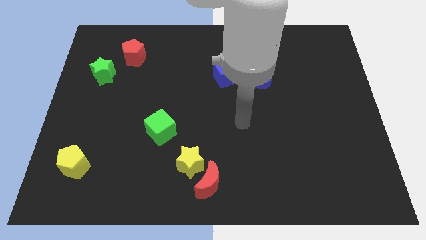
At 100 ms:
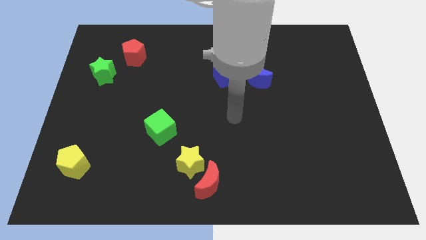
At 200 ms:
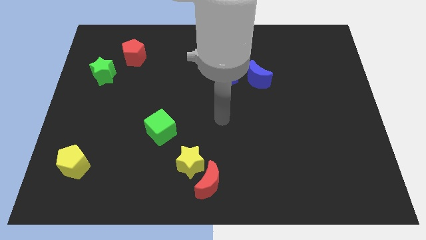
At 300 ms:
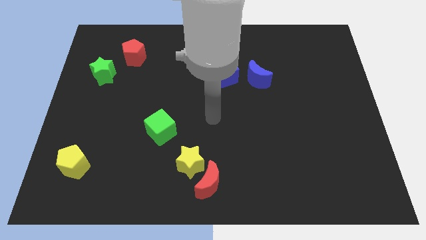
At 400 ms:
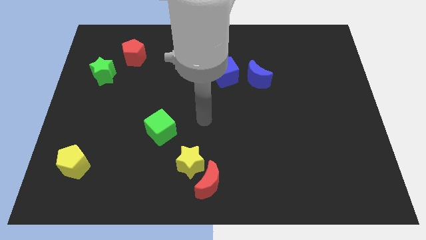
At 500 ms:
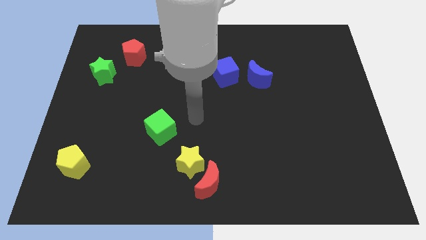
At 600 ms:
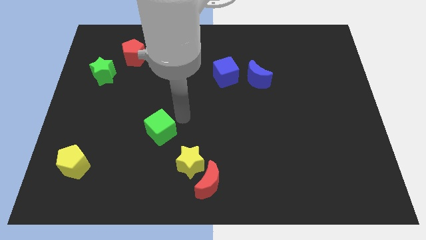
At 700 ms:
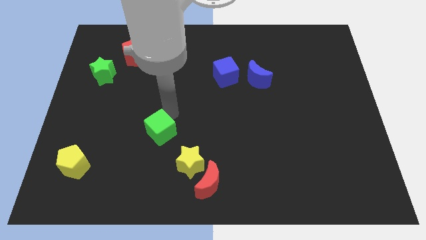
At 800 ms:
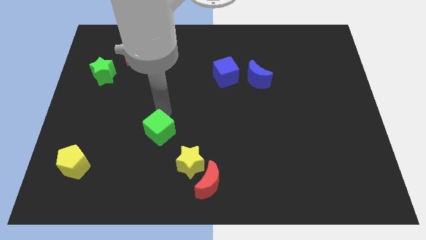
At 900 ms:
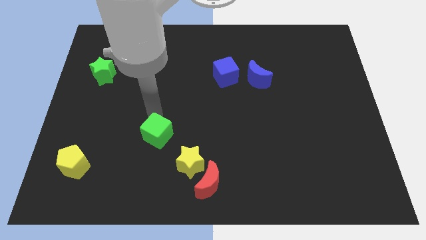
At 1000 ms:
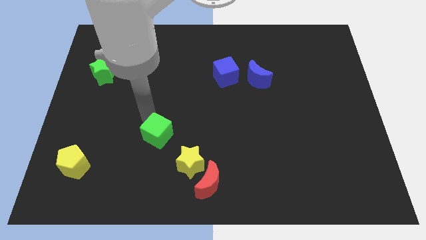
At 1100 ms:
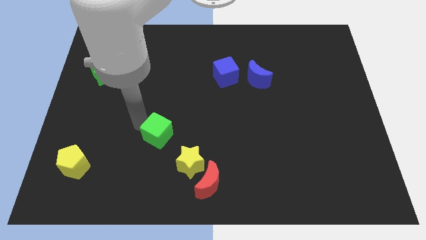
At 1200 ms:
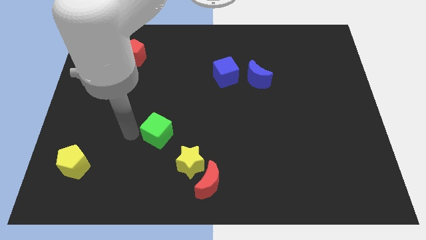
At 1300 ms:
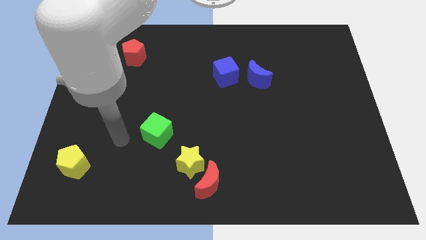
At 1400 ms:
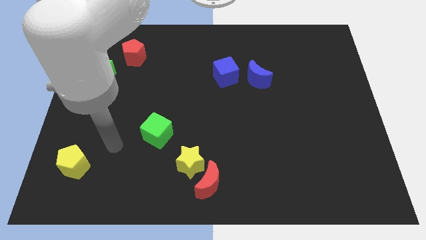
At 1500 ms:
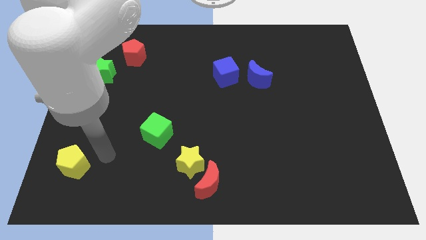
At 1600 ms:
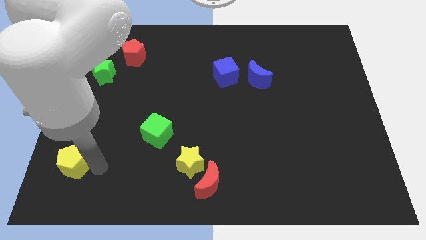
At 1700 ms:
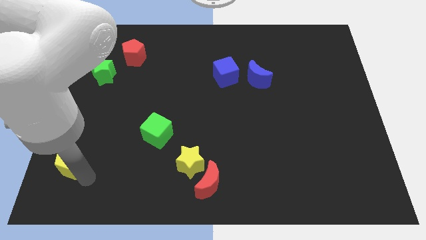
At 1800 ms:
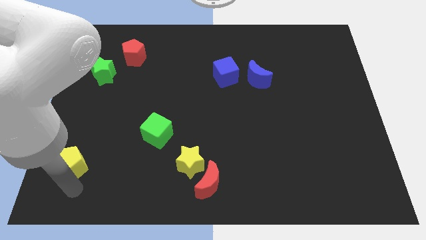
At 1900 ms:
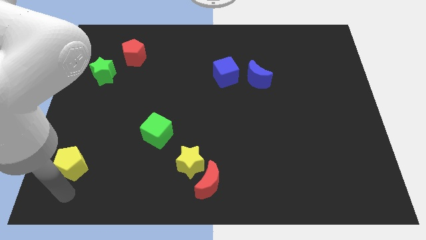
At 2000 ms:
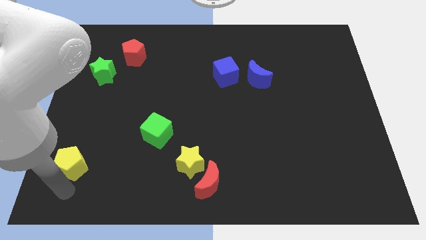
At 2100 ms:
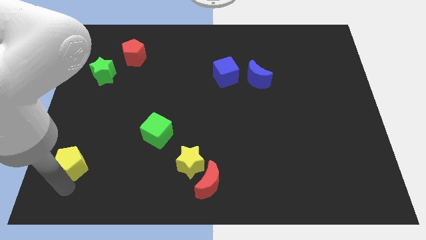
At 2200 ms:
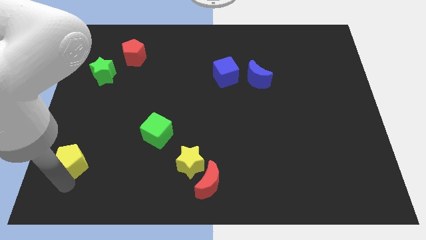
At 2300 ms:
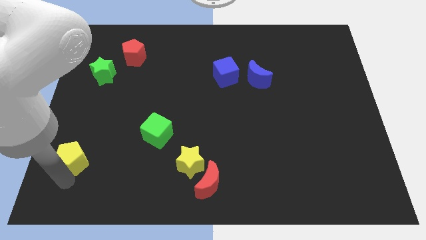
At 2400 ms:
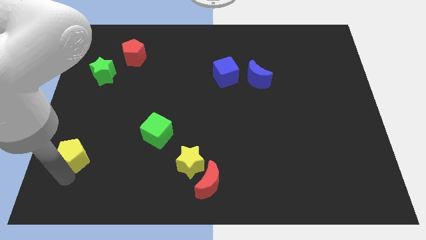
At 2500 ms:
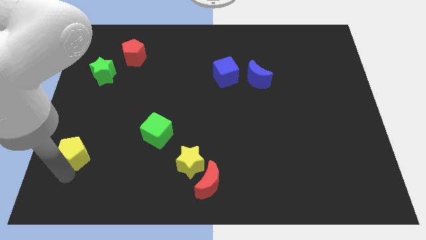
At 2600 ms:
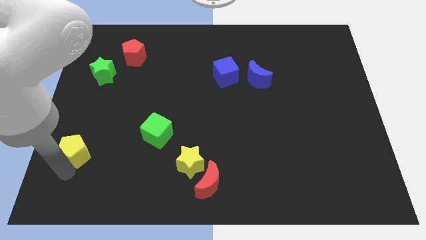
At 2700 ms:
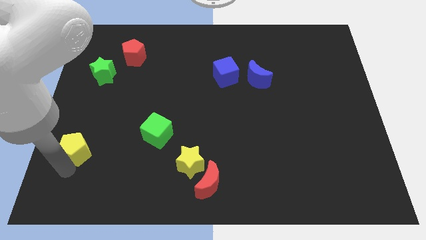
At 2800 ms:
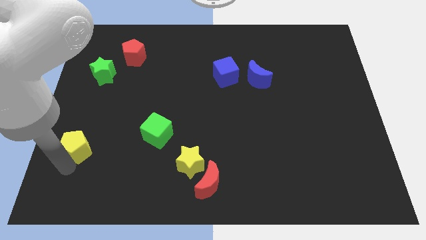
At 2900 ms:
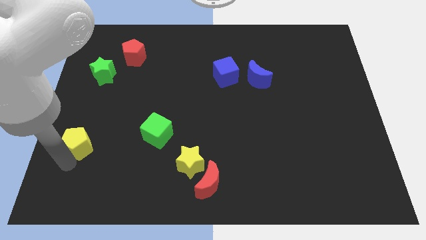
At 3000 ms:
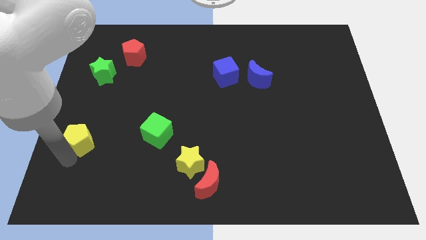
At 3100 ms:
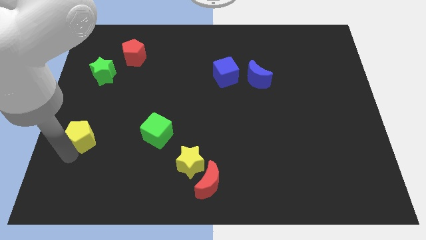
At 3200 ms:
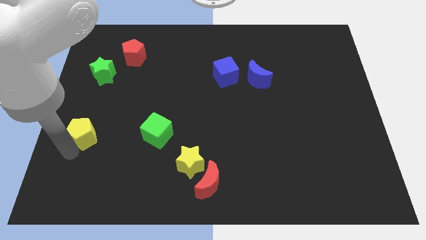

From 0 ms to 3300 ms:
push the yellow pentagon somewhat upwards

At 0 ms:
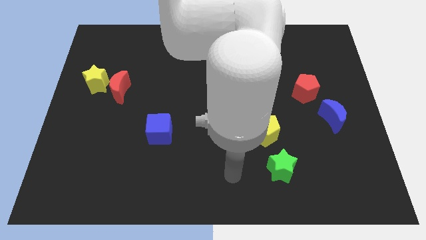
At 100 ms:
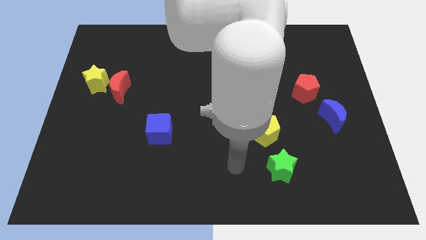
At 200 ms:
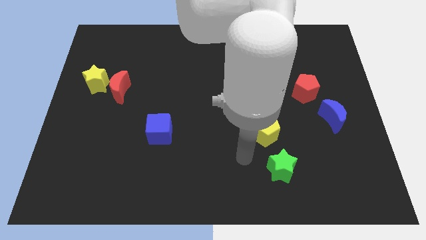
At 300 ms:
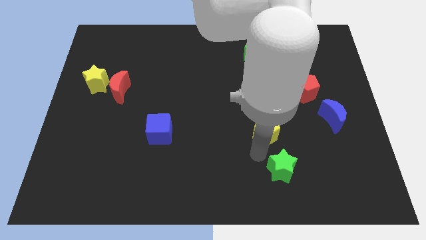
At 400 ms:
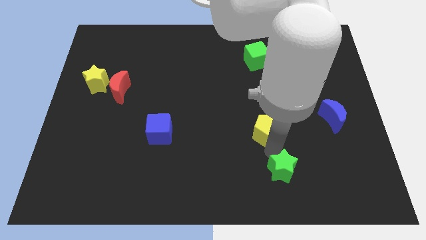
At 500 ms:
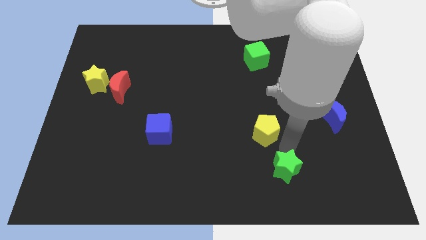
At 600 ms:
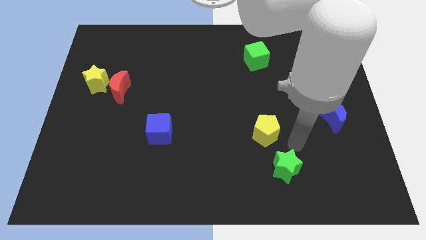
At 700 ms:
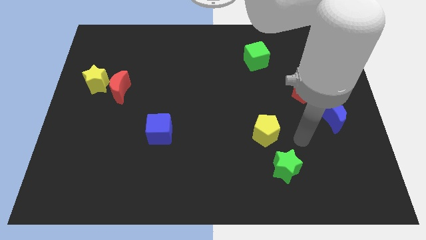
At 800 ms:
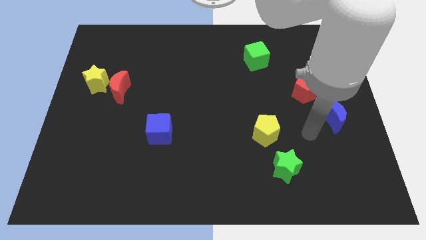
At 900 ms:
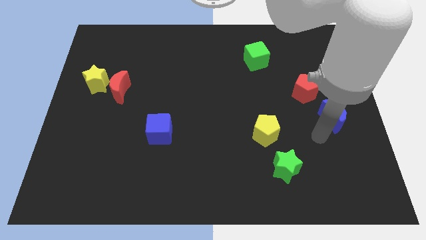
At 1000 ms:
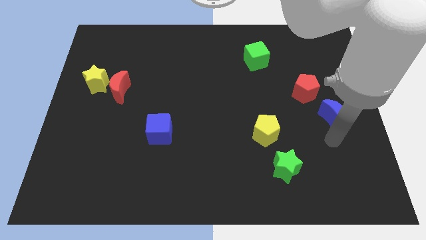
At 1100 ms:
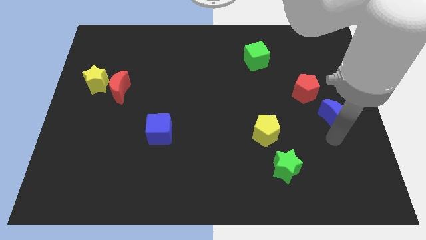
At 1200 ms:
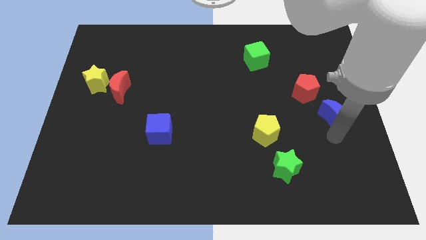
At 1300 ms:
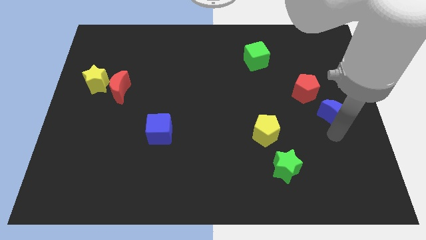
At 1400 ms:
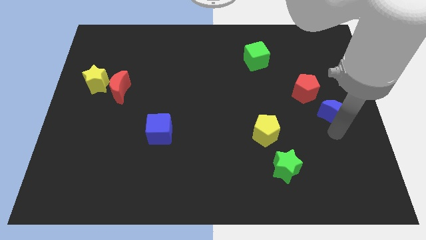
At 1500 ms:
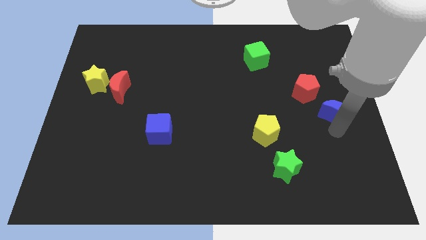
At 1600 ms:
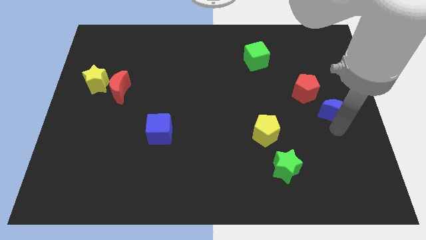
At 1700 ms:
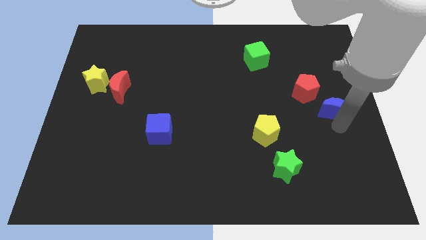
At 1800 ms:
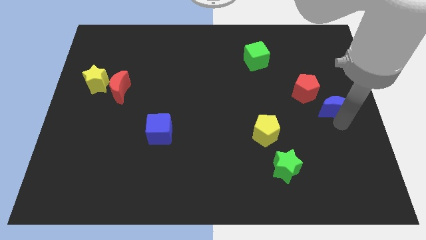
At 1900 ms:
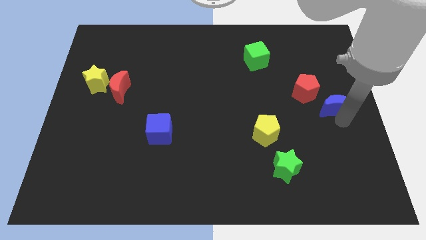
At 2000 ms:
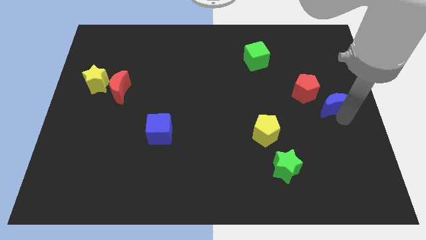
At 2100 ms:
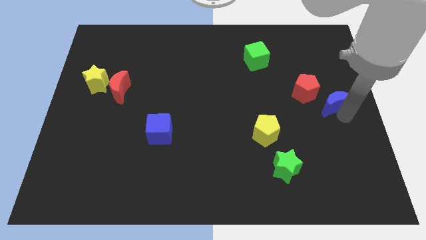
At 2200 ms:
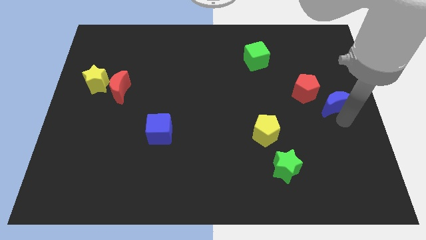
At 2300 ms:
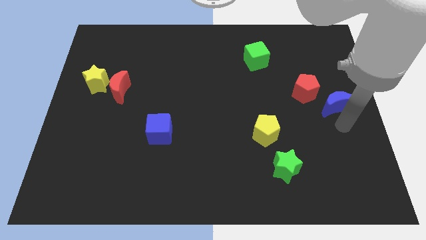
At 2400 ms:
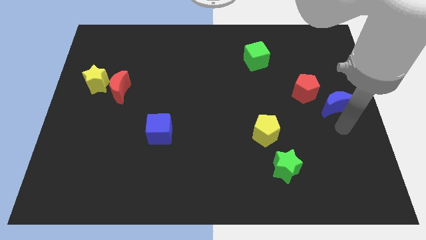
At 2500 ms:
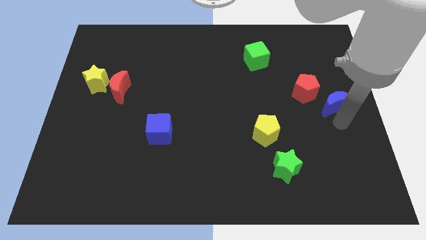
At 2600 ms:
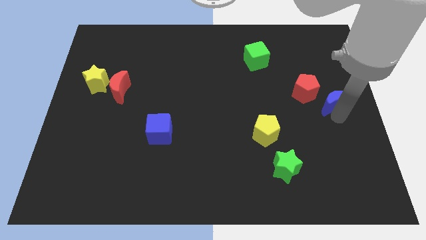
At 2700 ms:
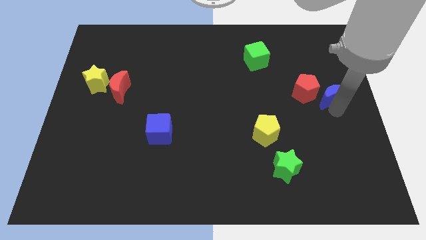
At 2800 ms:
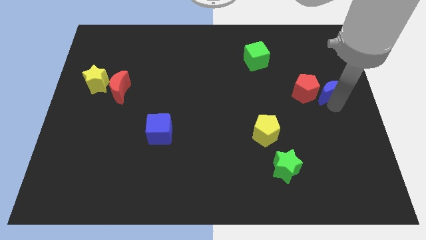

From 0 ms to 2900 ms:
slightly push the blue moon upwards

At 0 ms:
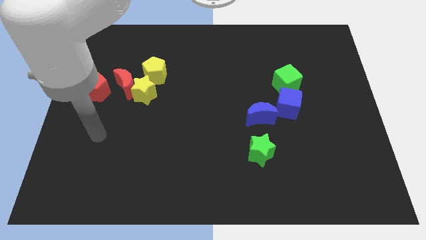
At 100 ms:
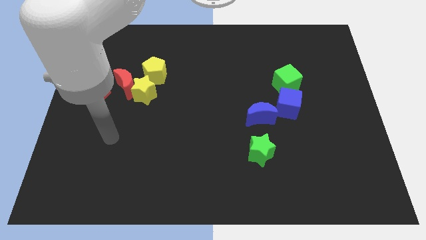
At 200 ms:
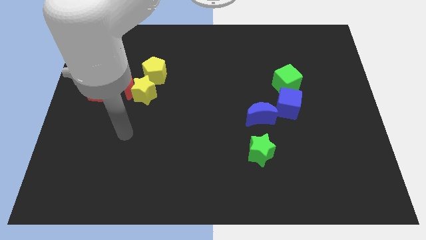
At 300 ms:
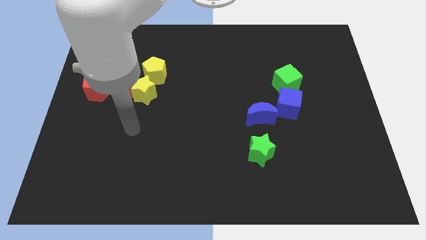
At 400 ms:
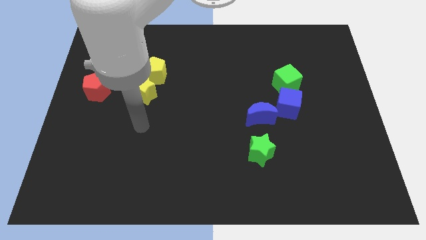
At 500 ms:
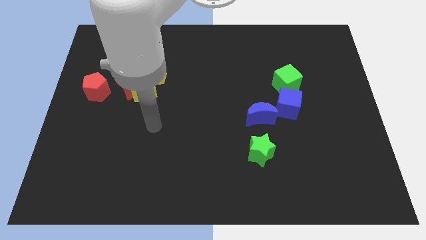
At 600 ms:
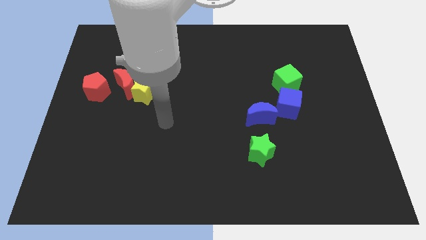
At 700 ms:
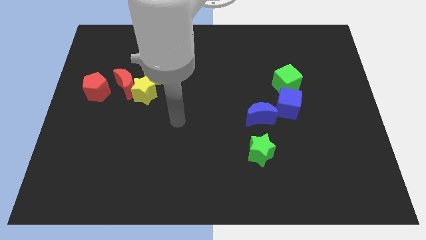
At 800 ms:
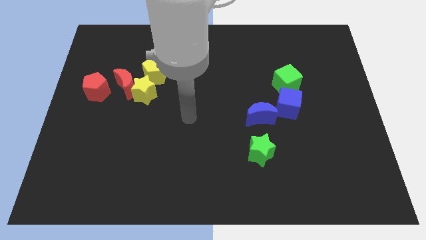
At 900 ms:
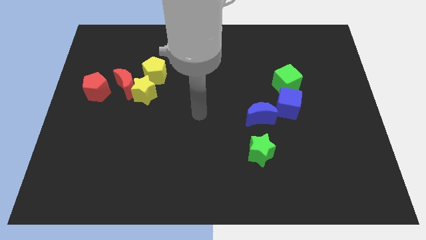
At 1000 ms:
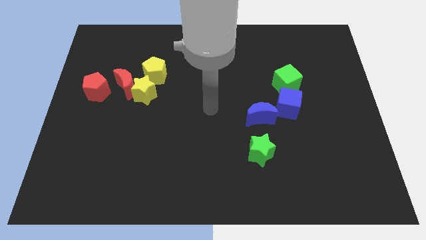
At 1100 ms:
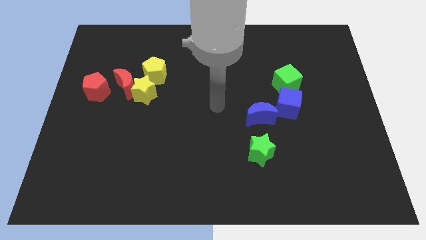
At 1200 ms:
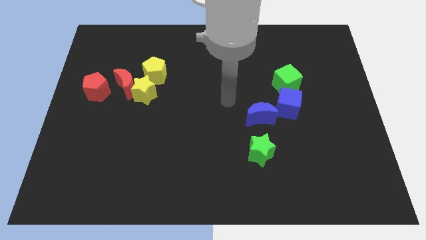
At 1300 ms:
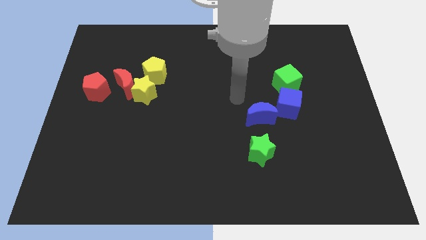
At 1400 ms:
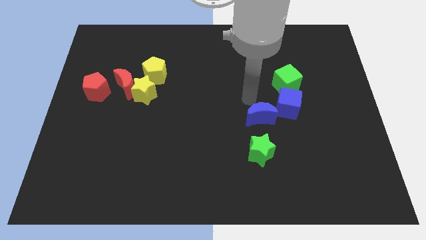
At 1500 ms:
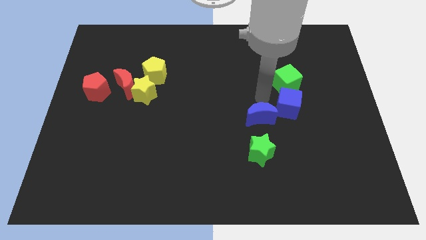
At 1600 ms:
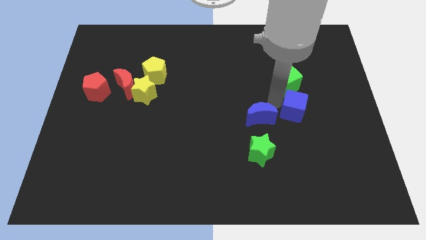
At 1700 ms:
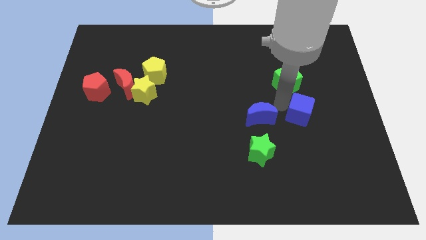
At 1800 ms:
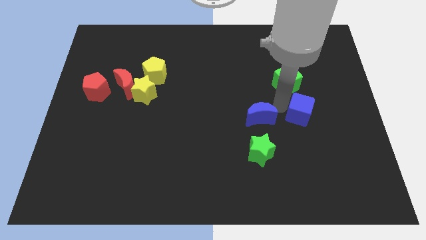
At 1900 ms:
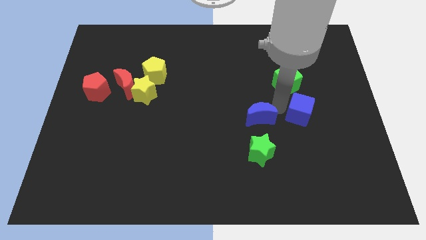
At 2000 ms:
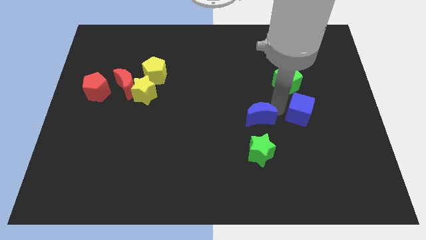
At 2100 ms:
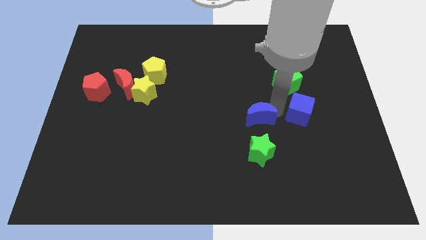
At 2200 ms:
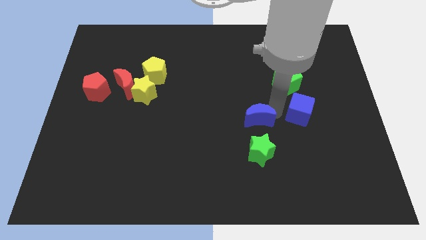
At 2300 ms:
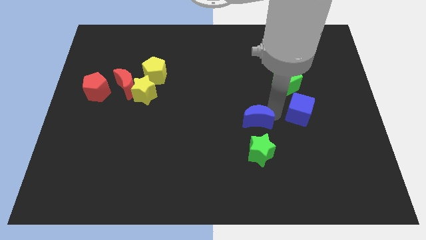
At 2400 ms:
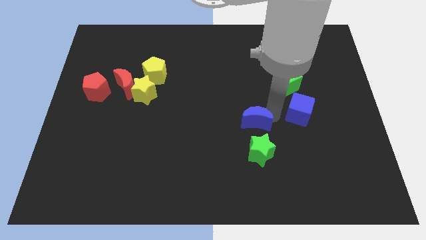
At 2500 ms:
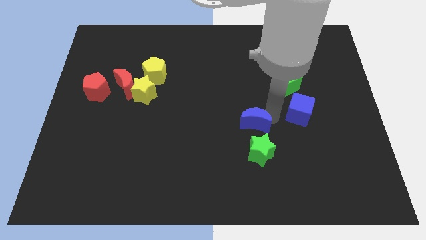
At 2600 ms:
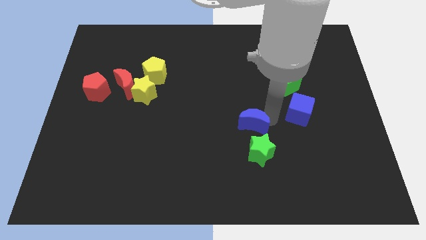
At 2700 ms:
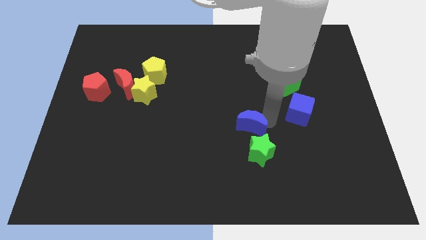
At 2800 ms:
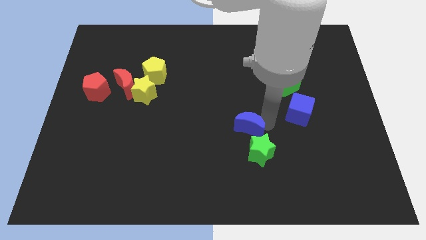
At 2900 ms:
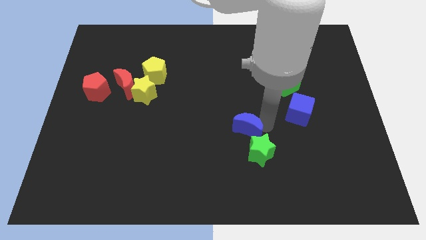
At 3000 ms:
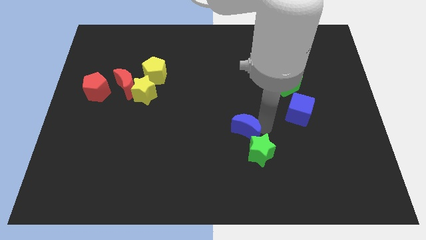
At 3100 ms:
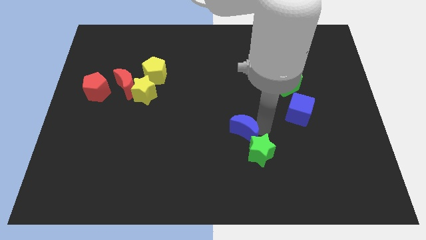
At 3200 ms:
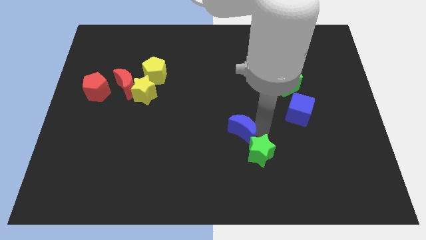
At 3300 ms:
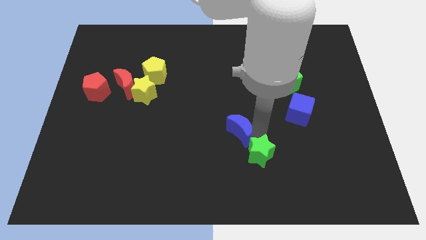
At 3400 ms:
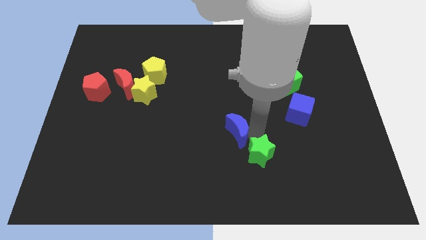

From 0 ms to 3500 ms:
slightly push the blue moon down and left
